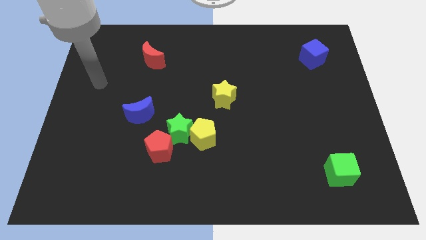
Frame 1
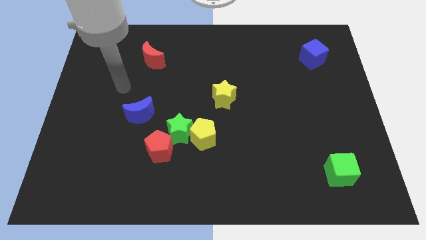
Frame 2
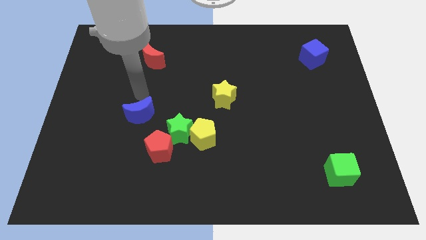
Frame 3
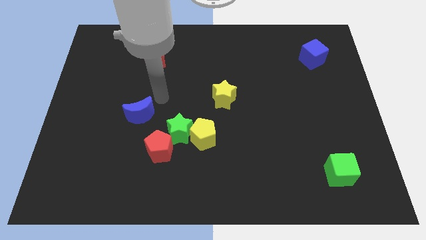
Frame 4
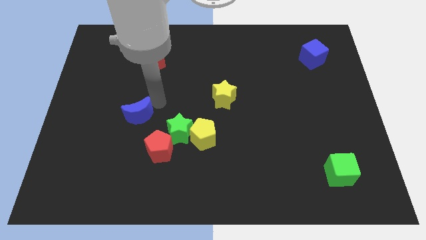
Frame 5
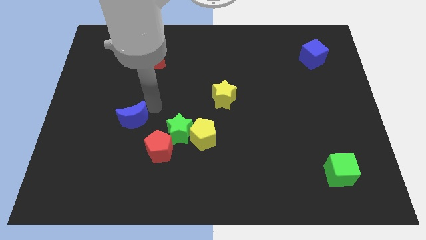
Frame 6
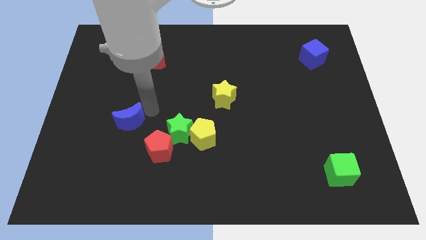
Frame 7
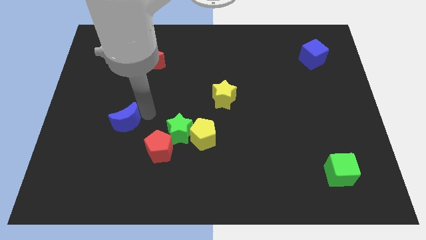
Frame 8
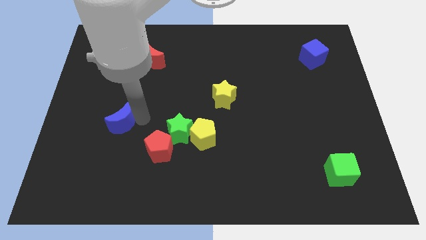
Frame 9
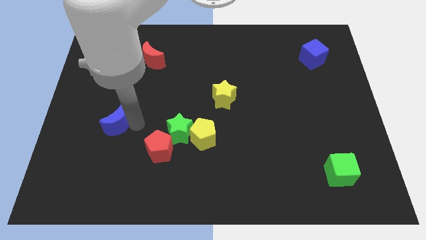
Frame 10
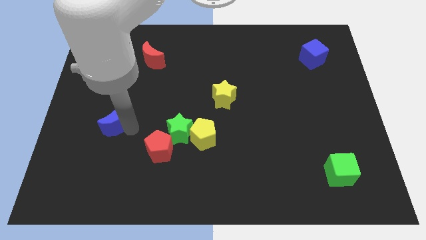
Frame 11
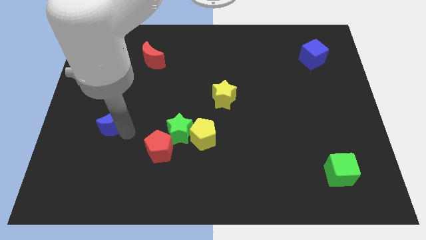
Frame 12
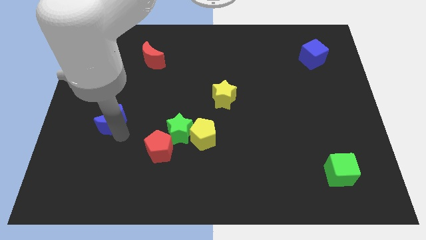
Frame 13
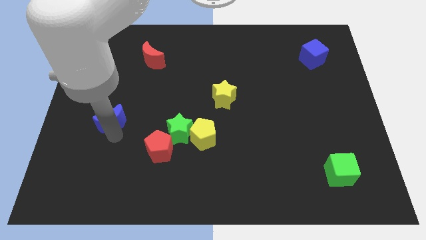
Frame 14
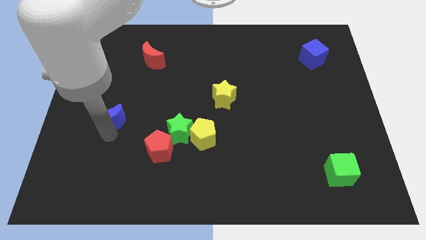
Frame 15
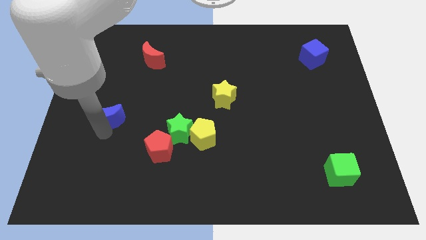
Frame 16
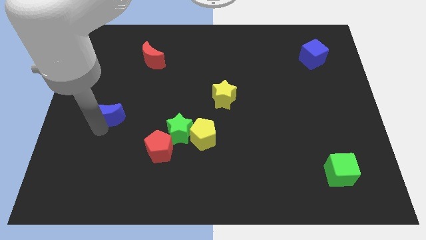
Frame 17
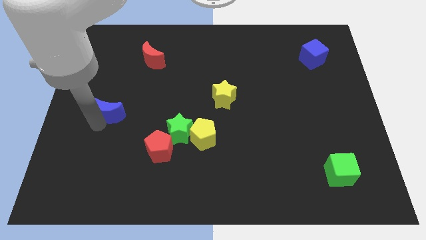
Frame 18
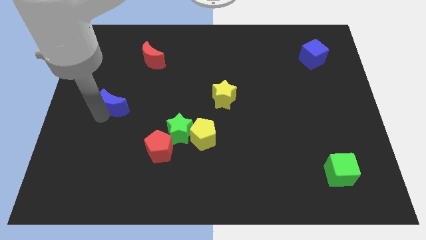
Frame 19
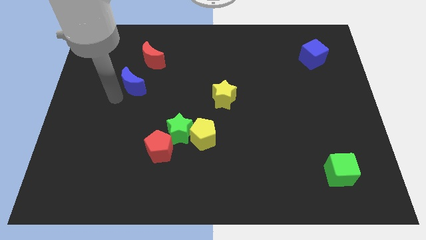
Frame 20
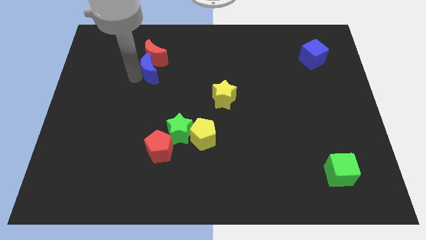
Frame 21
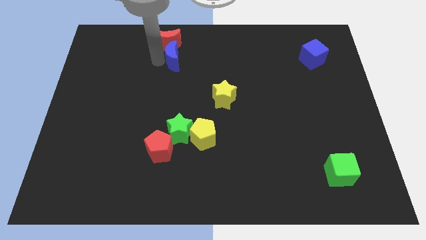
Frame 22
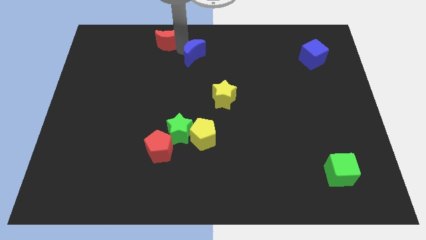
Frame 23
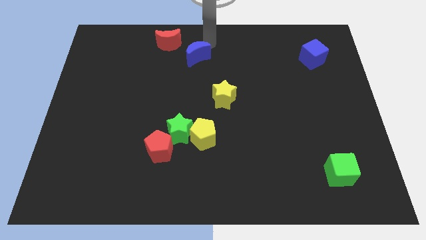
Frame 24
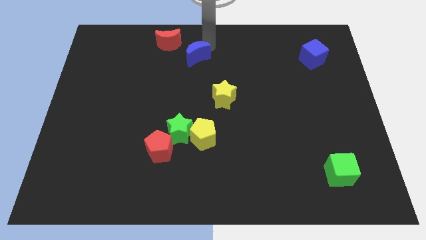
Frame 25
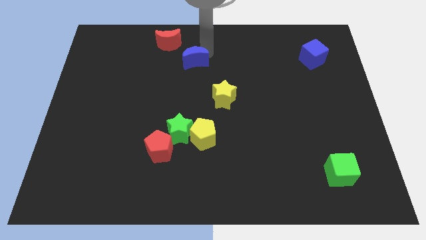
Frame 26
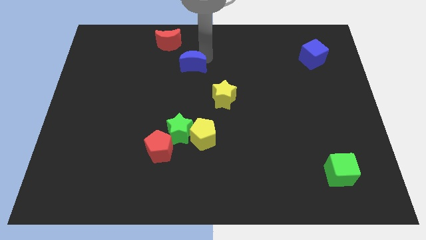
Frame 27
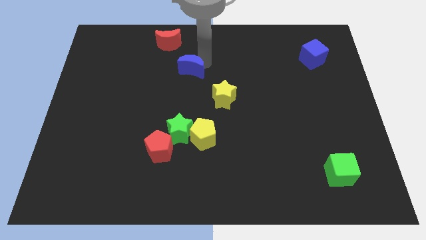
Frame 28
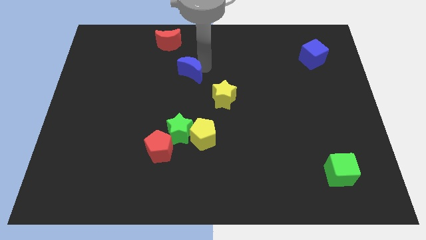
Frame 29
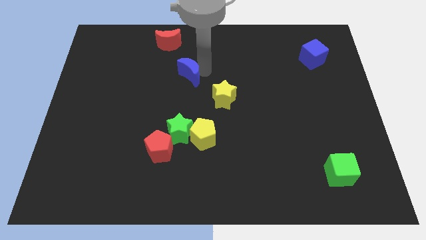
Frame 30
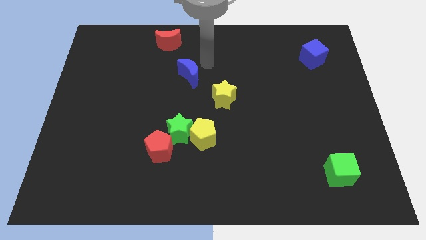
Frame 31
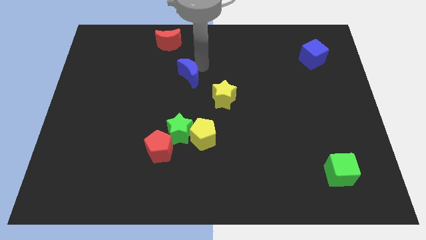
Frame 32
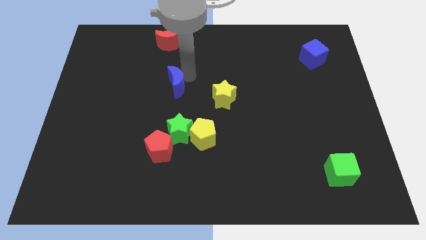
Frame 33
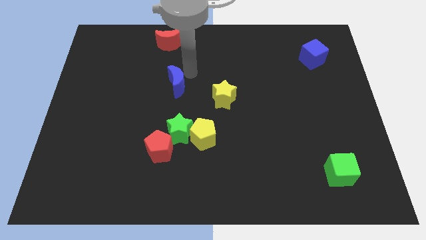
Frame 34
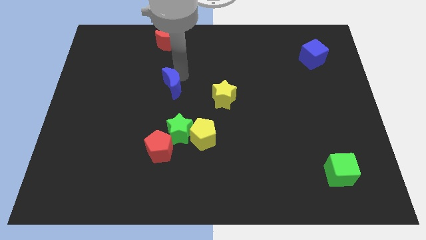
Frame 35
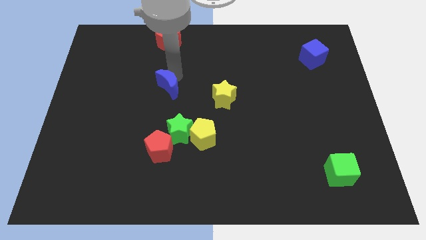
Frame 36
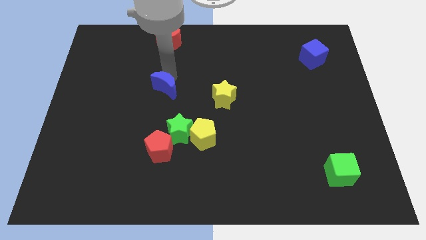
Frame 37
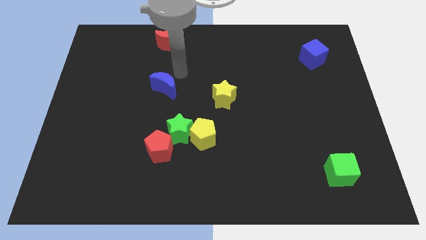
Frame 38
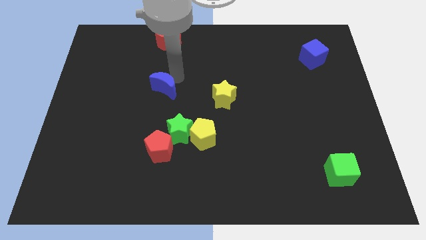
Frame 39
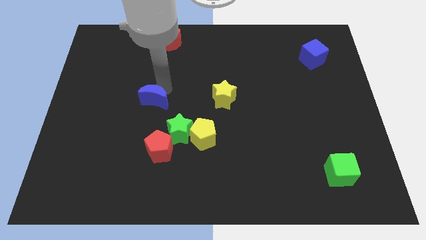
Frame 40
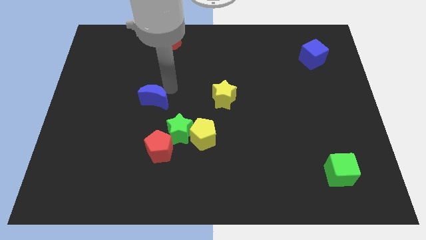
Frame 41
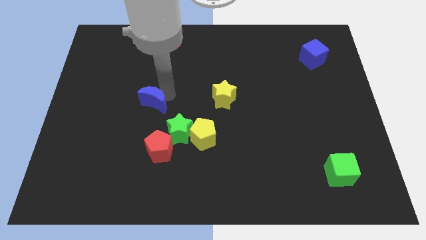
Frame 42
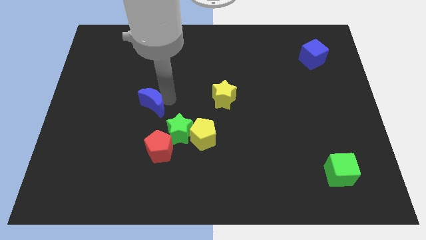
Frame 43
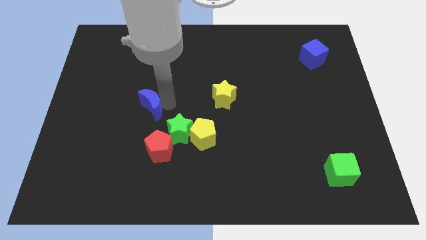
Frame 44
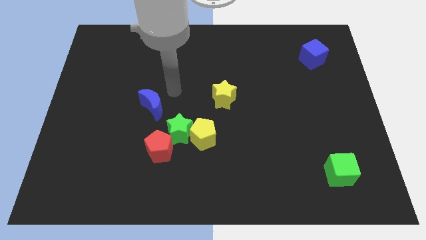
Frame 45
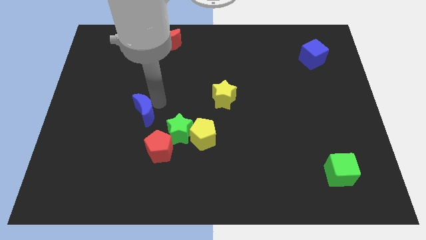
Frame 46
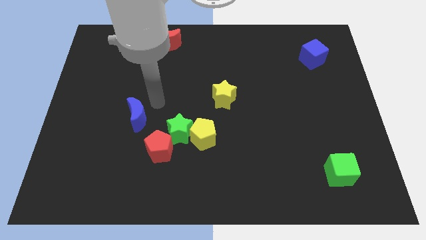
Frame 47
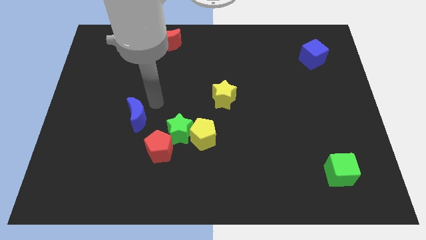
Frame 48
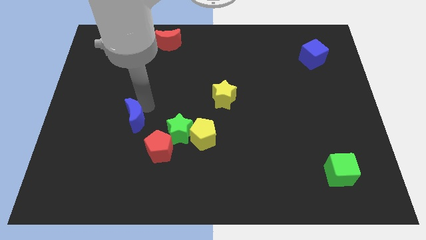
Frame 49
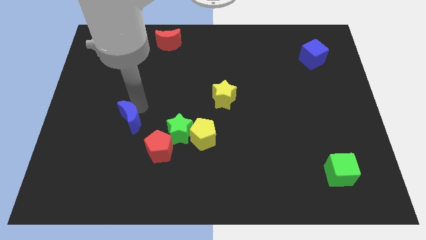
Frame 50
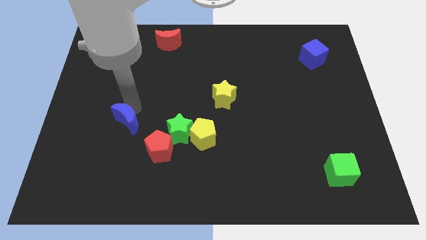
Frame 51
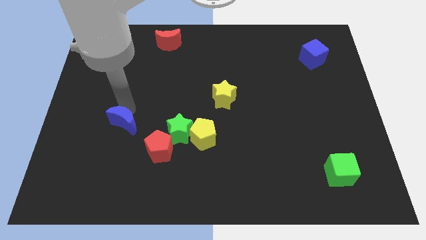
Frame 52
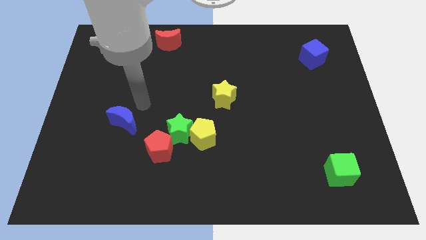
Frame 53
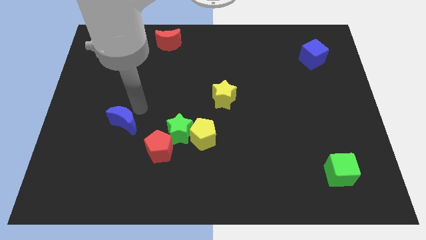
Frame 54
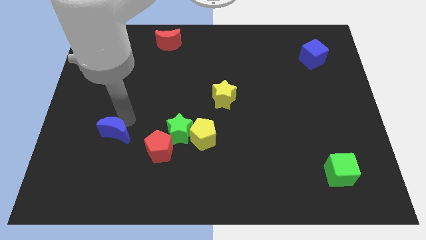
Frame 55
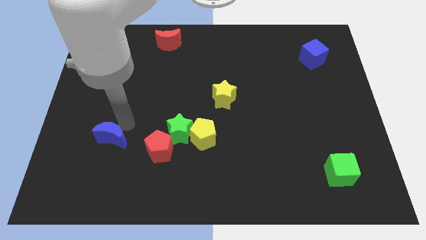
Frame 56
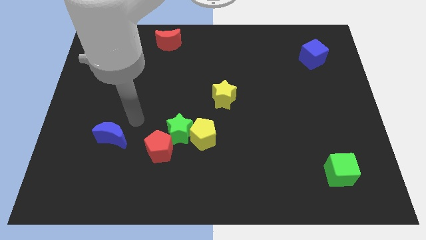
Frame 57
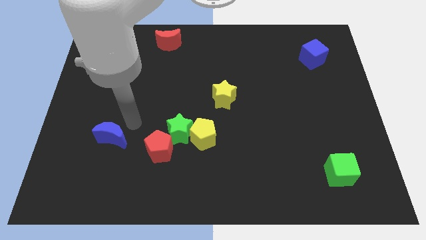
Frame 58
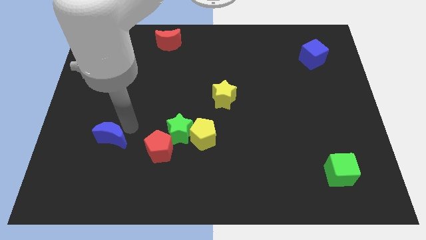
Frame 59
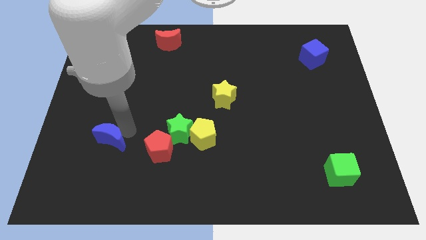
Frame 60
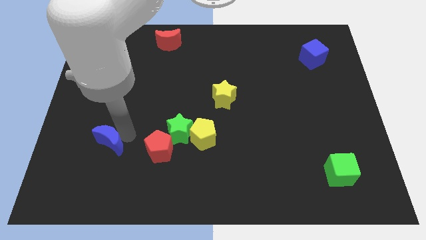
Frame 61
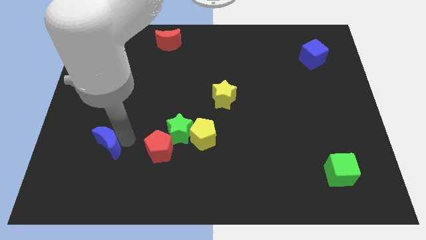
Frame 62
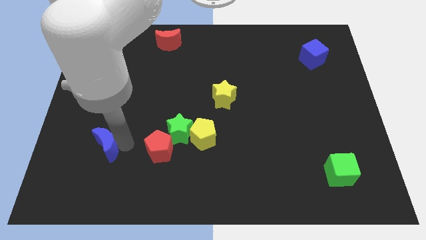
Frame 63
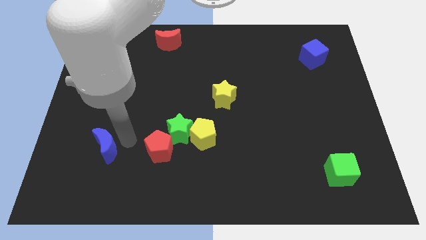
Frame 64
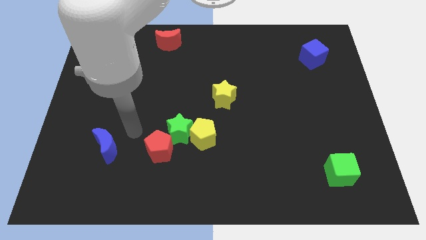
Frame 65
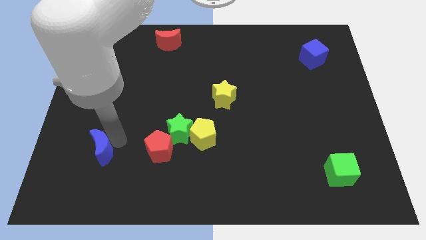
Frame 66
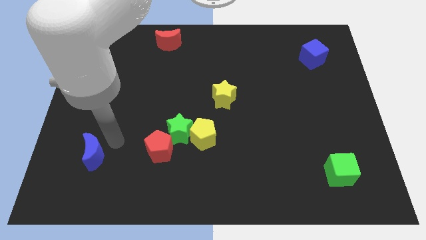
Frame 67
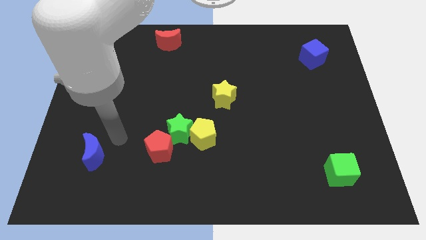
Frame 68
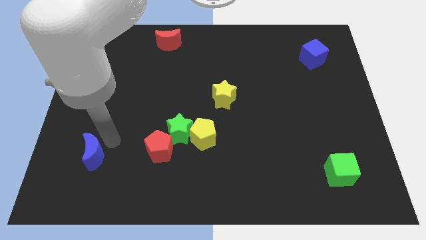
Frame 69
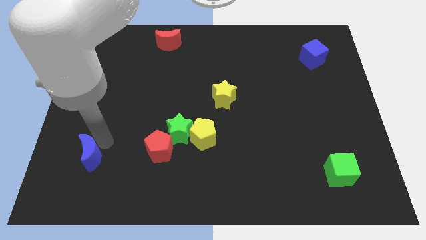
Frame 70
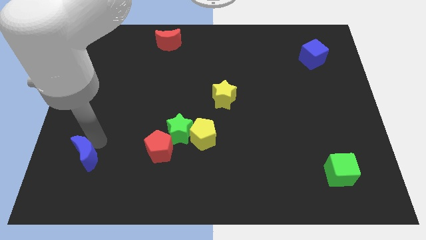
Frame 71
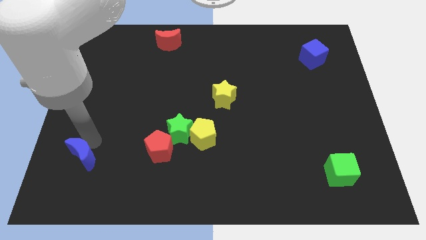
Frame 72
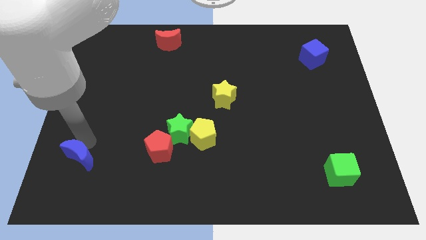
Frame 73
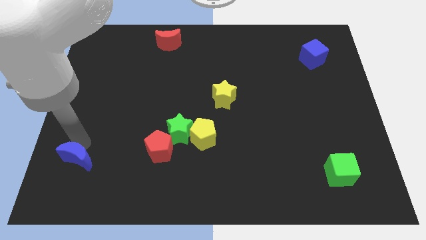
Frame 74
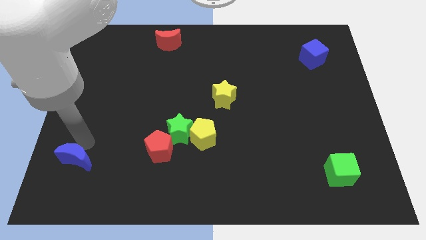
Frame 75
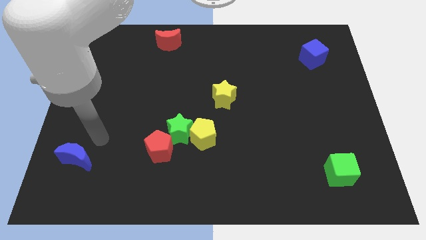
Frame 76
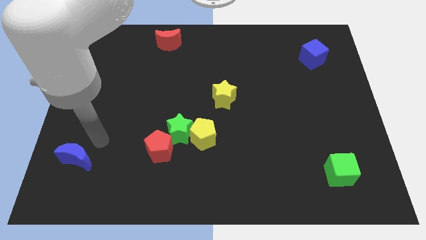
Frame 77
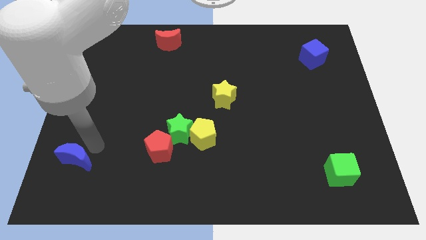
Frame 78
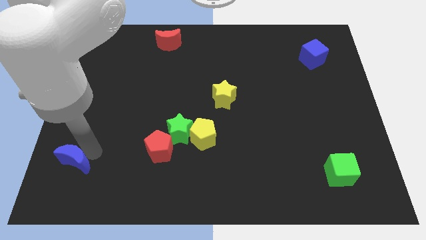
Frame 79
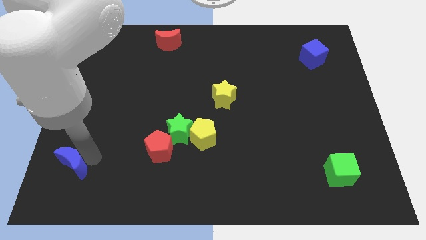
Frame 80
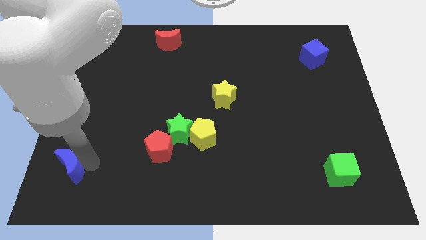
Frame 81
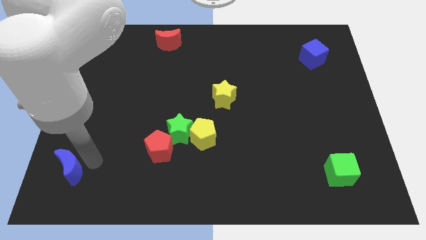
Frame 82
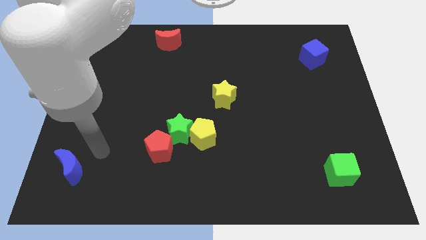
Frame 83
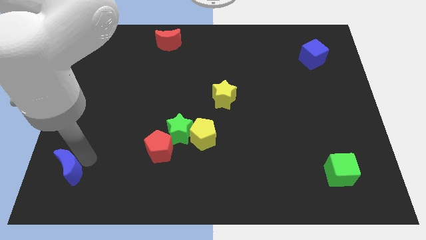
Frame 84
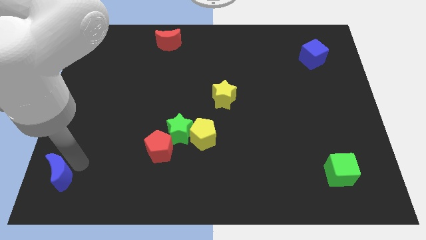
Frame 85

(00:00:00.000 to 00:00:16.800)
slide the blue moon to the bottom left of the board
